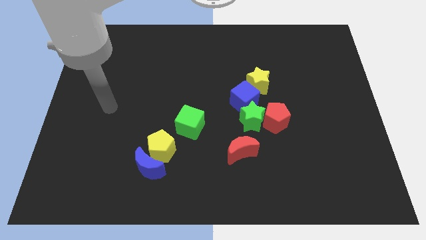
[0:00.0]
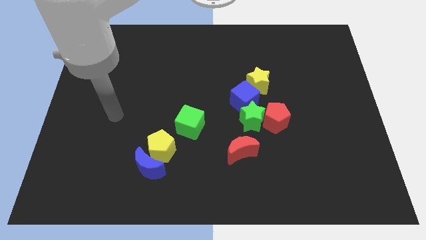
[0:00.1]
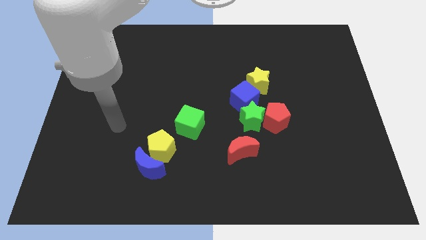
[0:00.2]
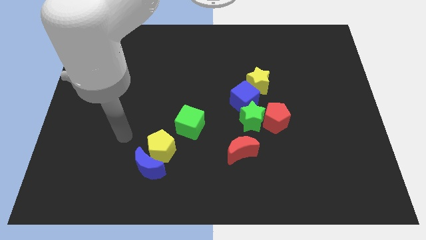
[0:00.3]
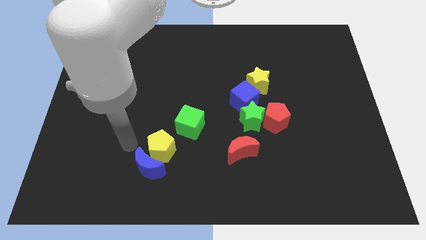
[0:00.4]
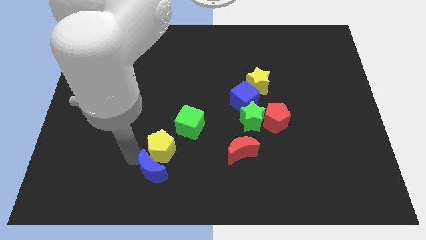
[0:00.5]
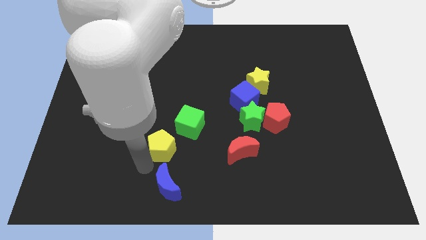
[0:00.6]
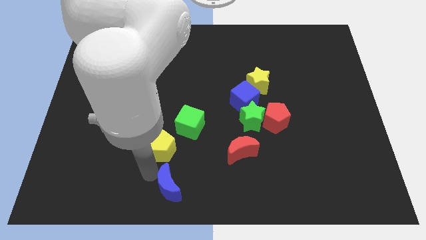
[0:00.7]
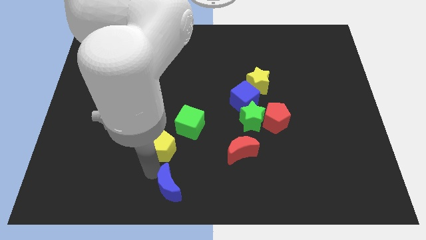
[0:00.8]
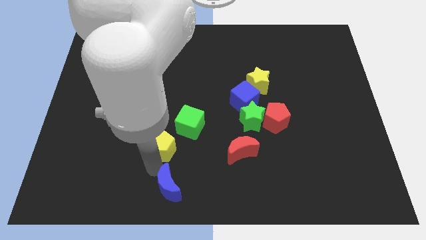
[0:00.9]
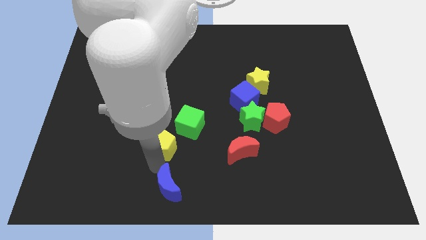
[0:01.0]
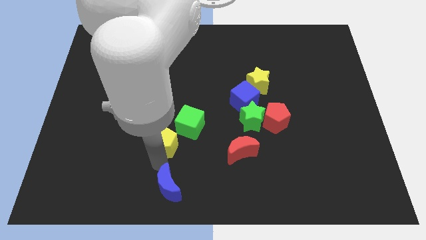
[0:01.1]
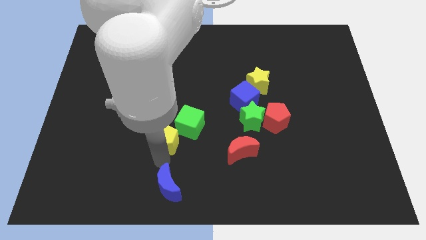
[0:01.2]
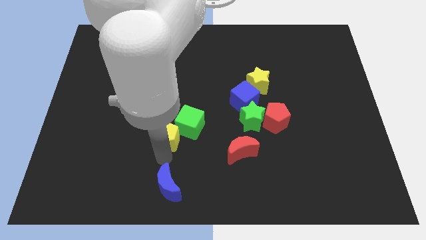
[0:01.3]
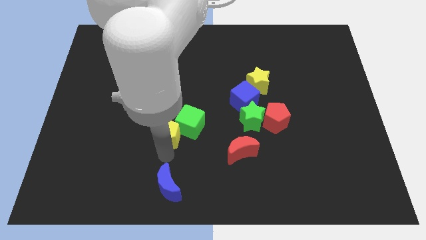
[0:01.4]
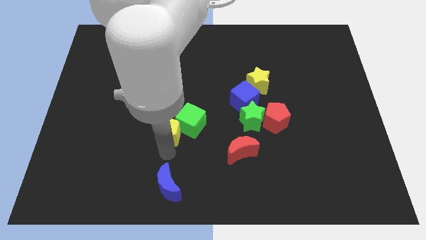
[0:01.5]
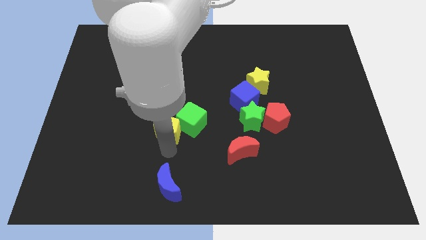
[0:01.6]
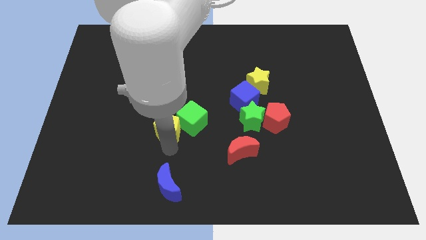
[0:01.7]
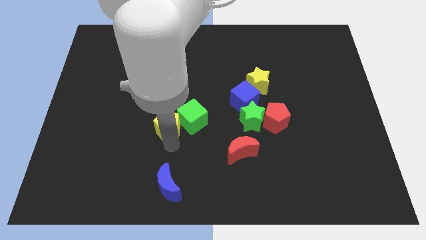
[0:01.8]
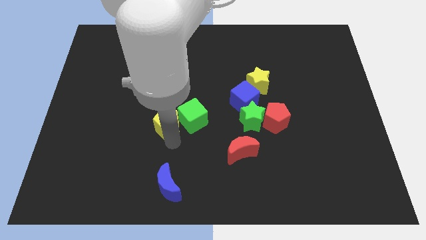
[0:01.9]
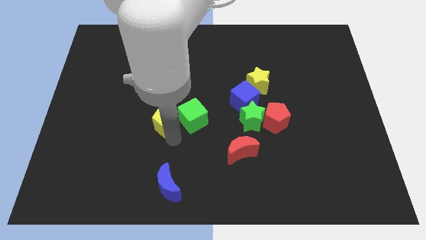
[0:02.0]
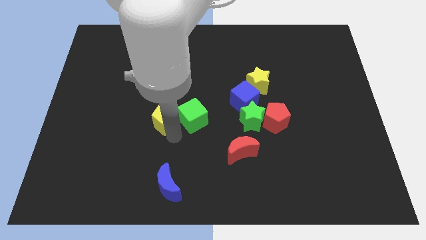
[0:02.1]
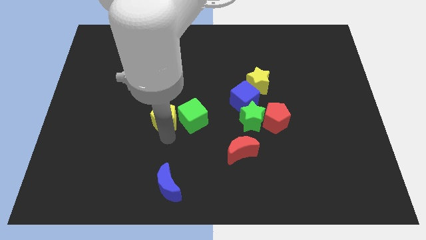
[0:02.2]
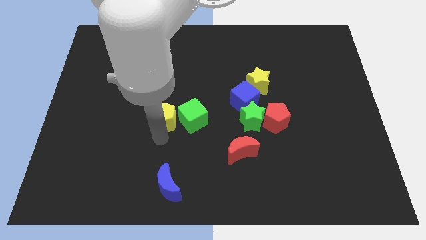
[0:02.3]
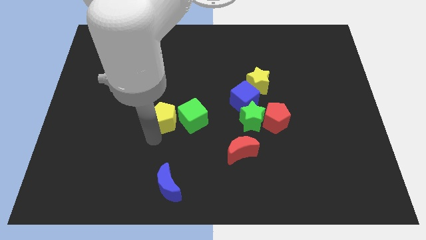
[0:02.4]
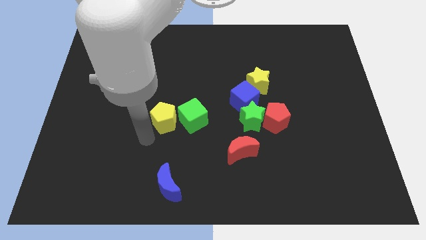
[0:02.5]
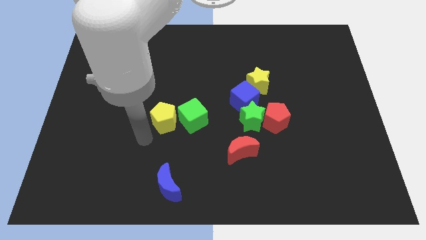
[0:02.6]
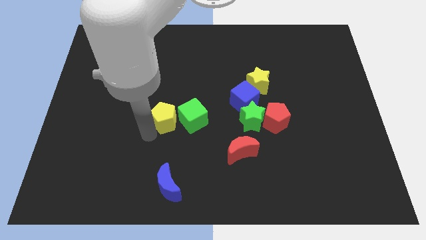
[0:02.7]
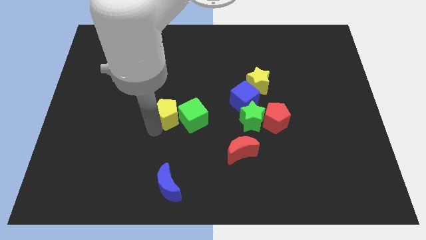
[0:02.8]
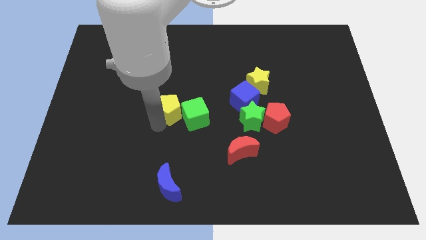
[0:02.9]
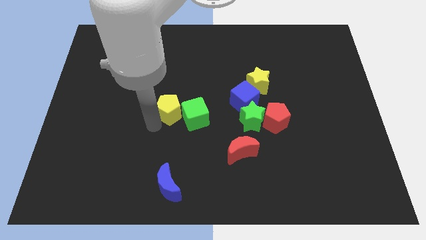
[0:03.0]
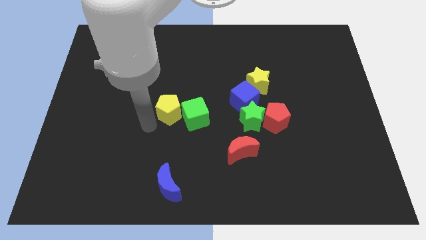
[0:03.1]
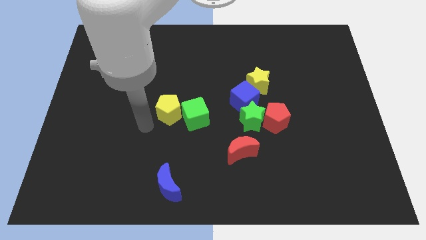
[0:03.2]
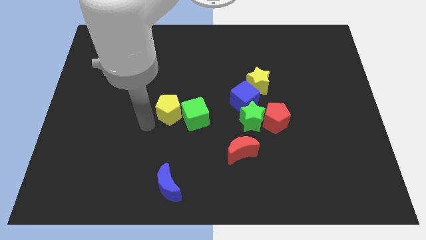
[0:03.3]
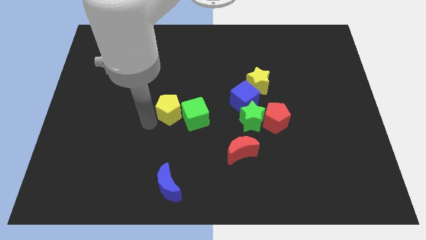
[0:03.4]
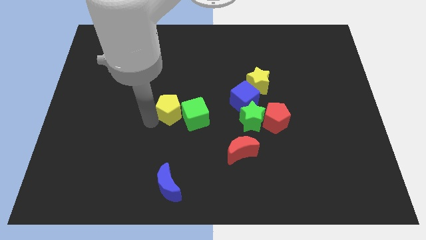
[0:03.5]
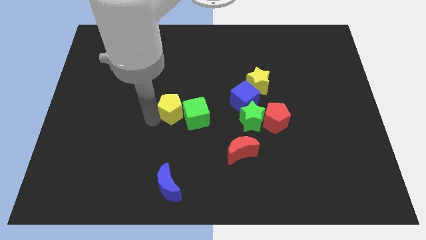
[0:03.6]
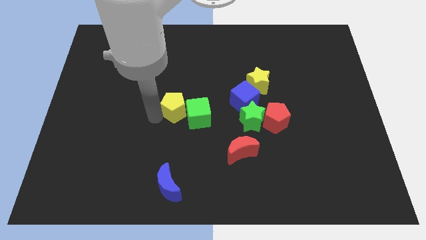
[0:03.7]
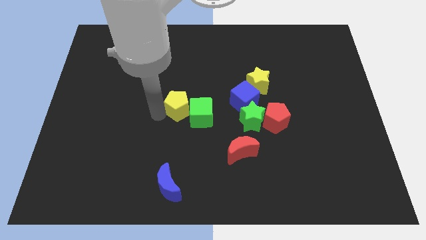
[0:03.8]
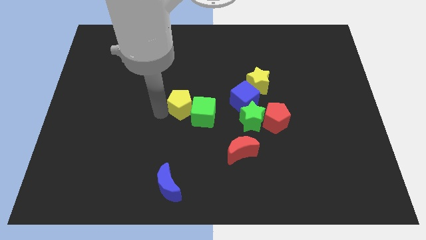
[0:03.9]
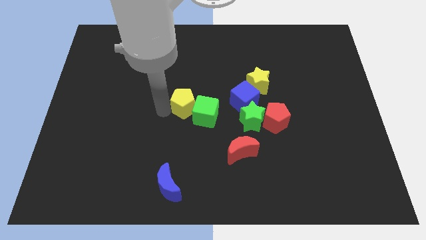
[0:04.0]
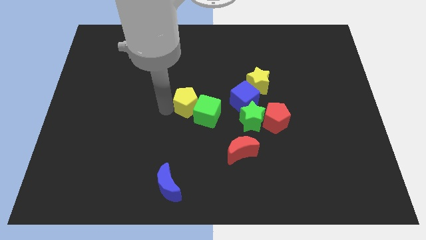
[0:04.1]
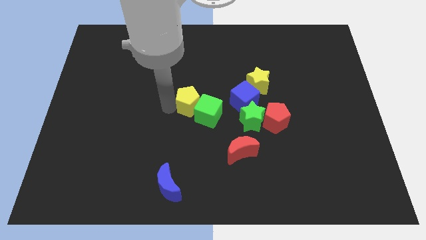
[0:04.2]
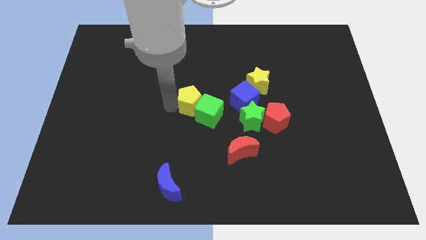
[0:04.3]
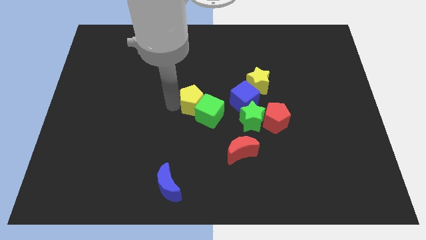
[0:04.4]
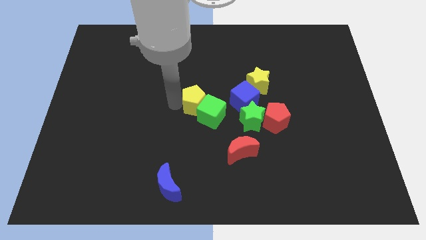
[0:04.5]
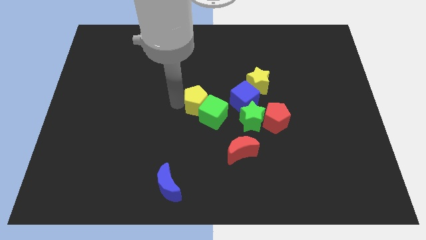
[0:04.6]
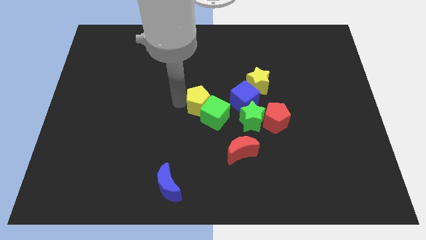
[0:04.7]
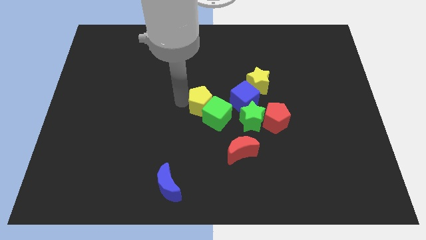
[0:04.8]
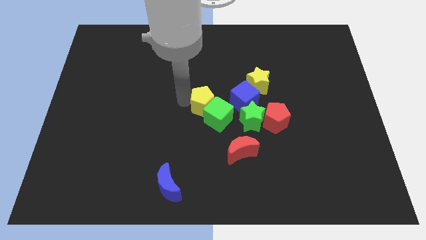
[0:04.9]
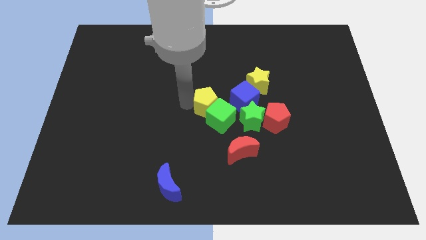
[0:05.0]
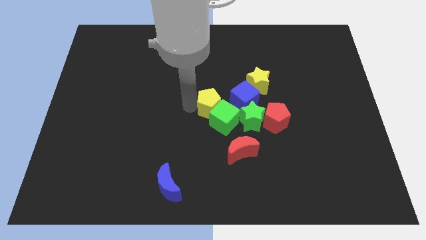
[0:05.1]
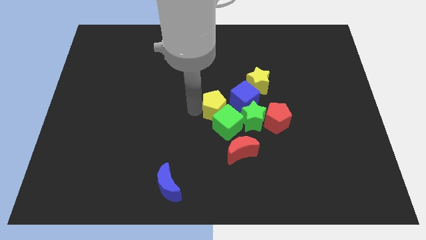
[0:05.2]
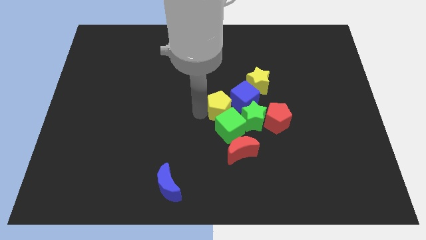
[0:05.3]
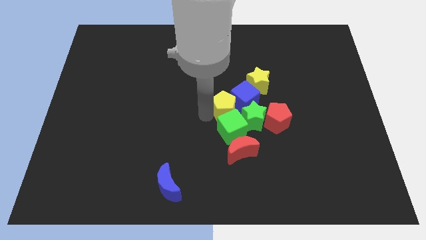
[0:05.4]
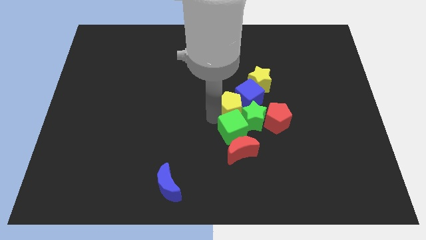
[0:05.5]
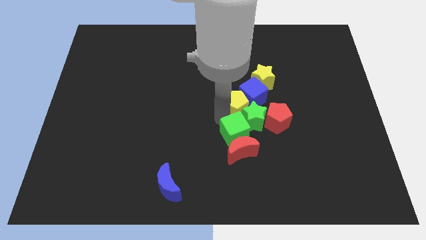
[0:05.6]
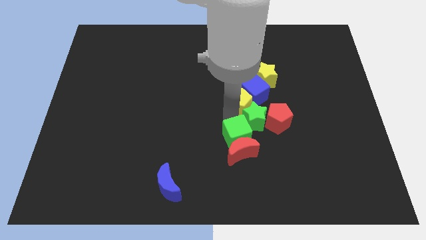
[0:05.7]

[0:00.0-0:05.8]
push the yellow pentagon up and then to the right

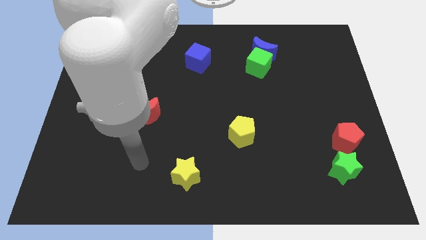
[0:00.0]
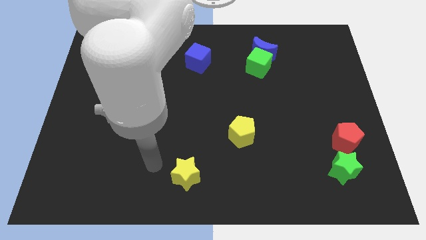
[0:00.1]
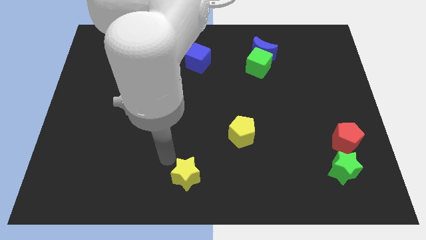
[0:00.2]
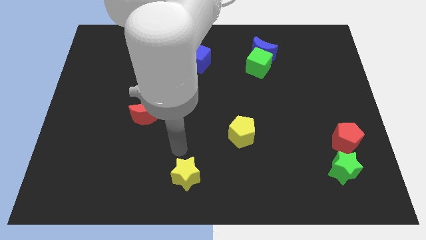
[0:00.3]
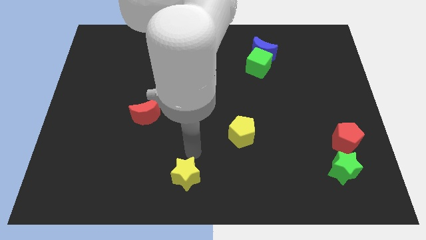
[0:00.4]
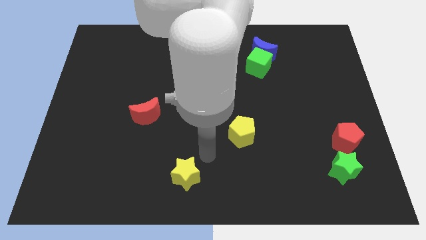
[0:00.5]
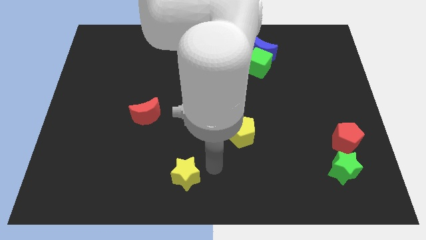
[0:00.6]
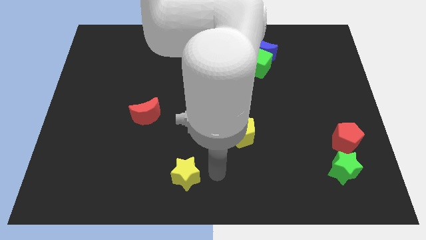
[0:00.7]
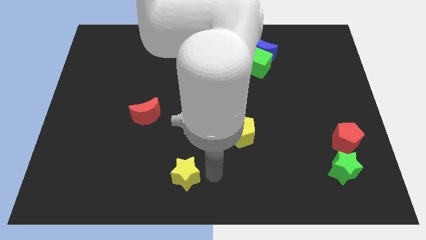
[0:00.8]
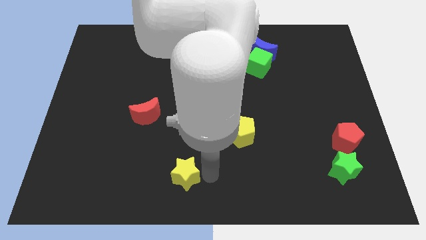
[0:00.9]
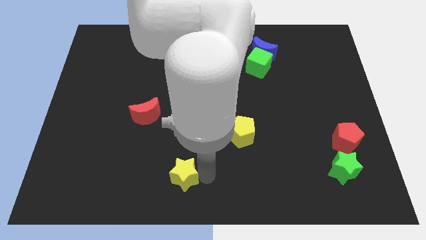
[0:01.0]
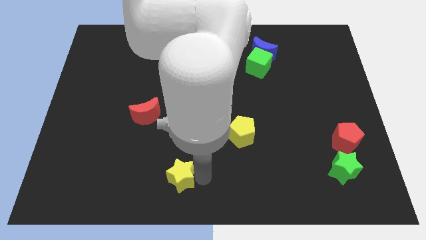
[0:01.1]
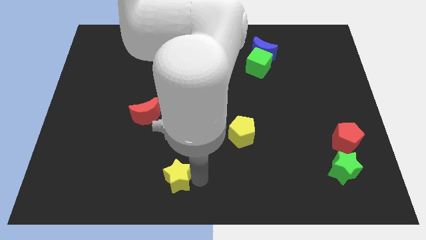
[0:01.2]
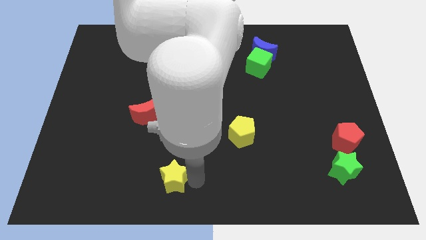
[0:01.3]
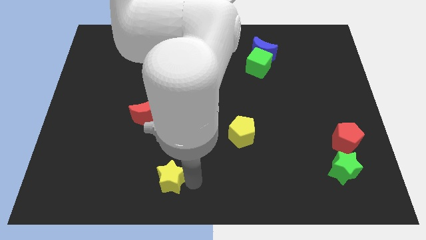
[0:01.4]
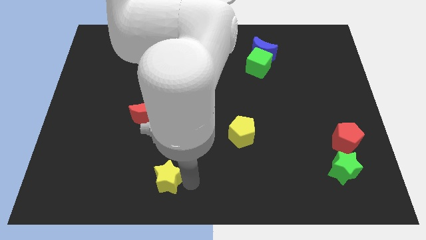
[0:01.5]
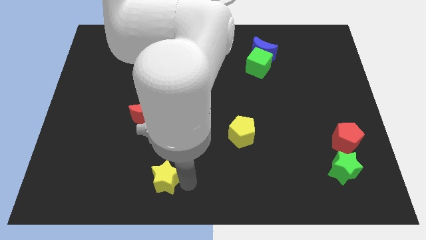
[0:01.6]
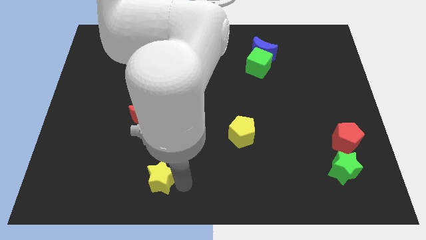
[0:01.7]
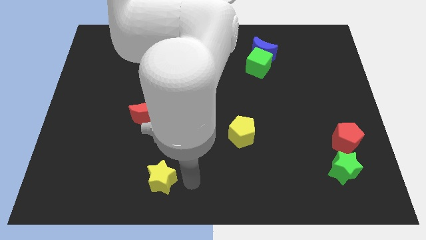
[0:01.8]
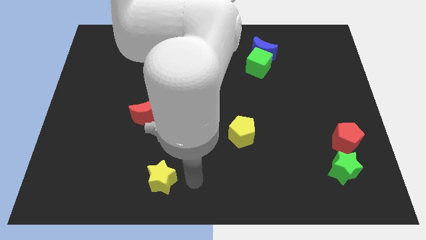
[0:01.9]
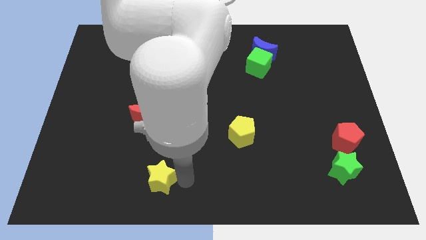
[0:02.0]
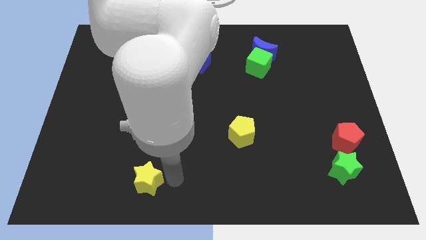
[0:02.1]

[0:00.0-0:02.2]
push the yellow star to the left a bit

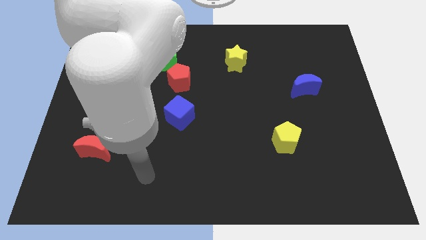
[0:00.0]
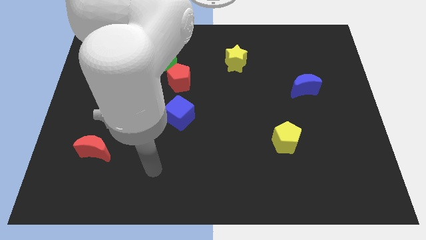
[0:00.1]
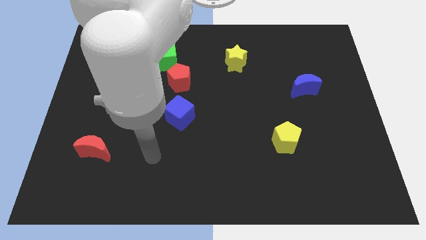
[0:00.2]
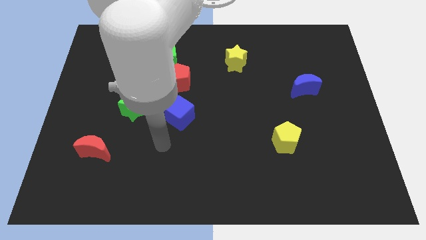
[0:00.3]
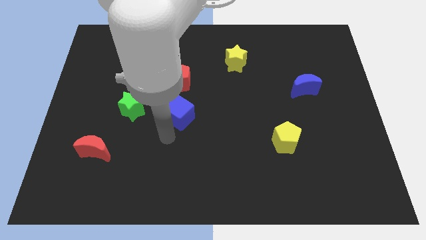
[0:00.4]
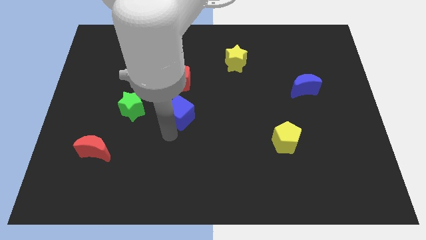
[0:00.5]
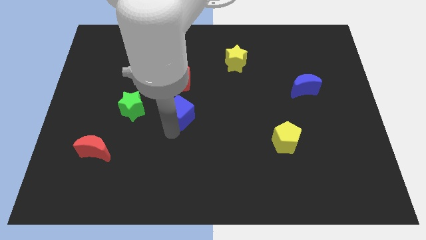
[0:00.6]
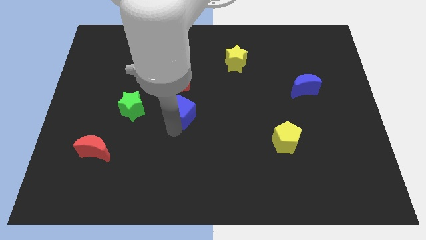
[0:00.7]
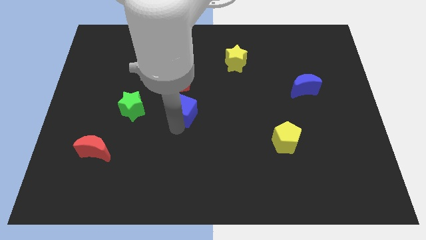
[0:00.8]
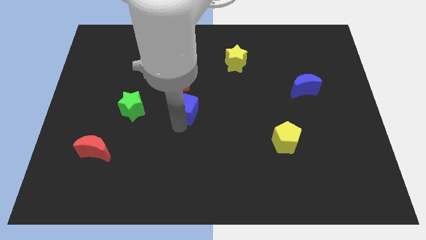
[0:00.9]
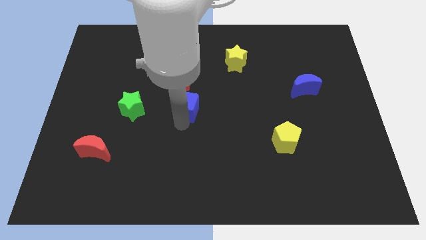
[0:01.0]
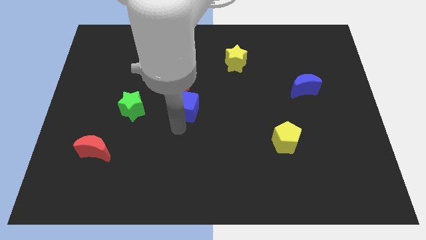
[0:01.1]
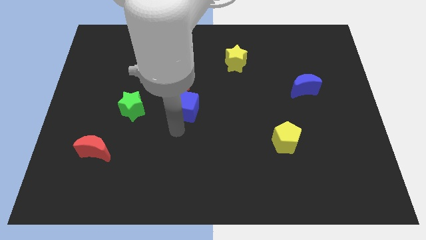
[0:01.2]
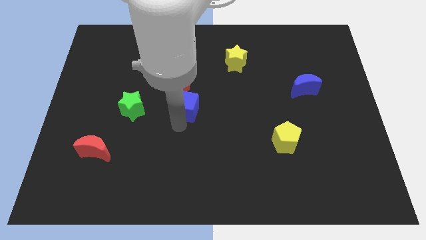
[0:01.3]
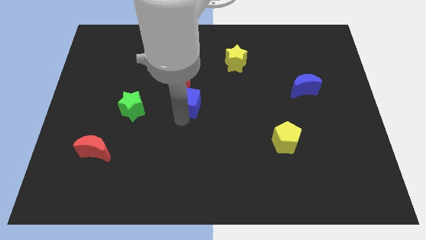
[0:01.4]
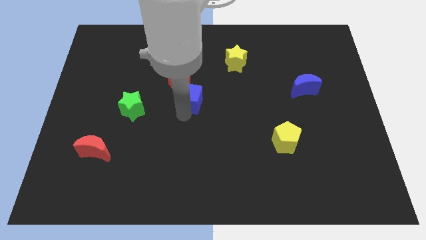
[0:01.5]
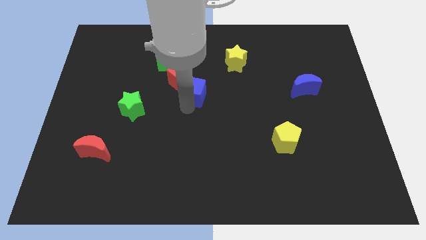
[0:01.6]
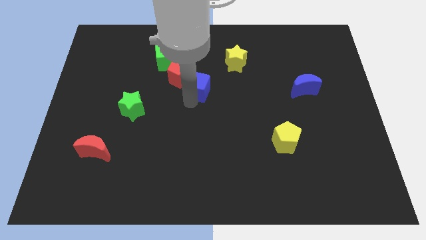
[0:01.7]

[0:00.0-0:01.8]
slide the blue cube a little up
